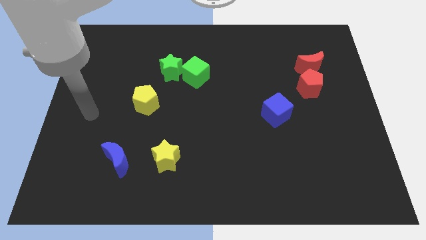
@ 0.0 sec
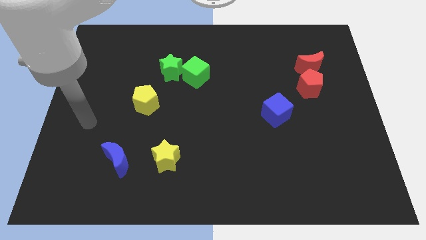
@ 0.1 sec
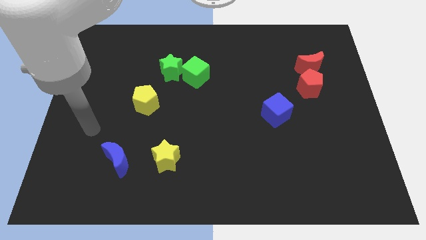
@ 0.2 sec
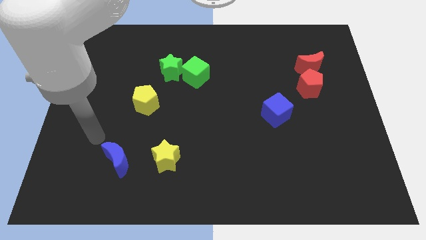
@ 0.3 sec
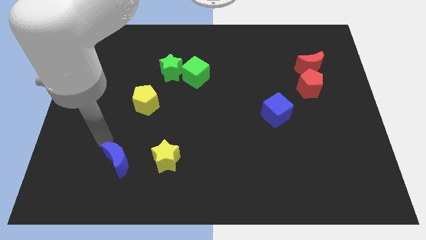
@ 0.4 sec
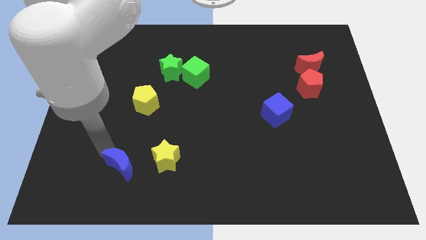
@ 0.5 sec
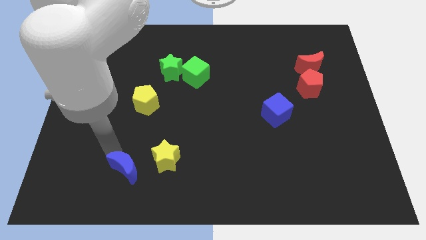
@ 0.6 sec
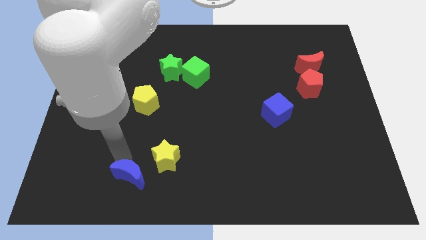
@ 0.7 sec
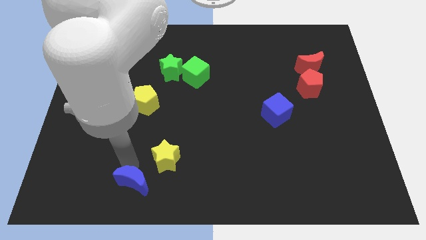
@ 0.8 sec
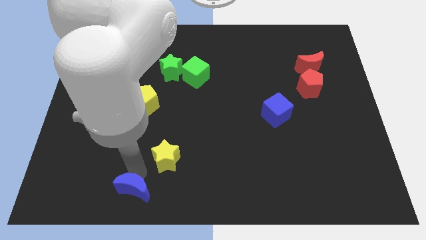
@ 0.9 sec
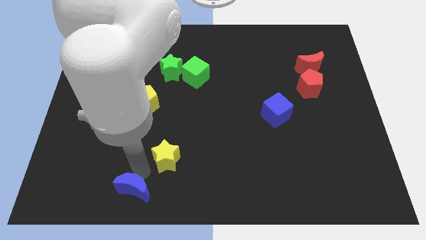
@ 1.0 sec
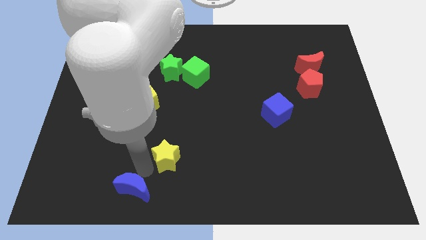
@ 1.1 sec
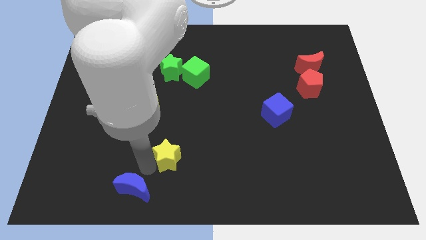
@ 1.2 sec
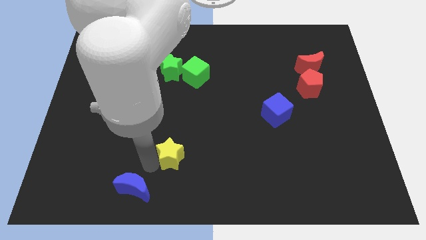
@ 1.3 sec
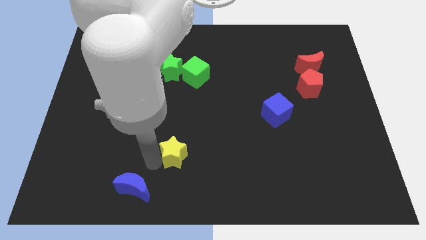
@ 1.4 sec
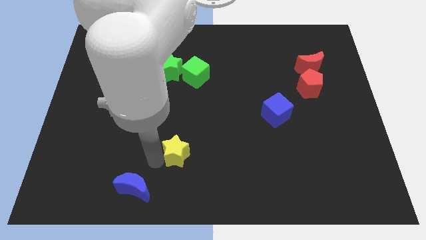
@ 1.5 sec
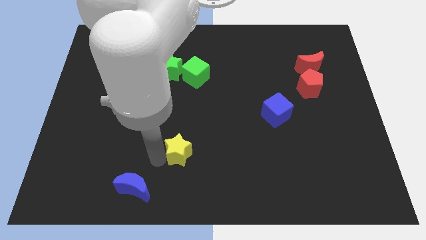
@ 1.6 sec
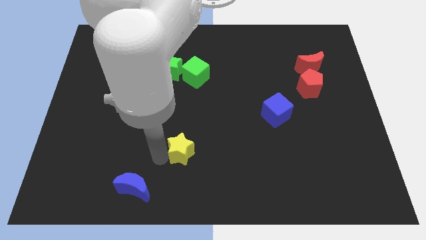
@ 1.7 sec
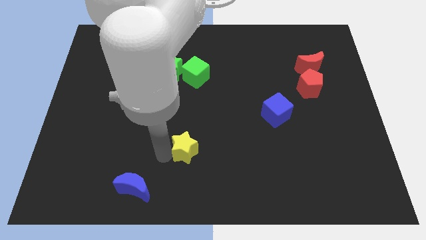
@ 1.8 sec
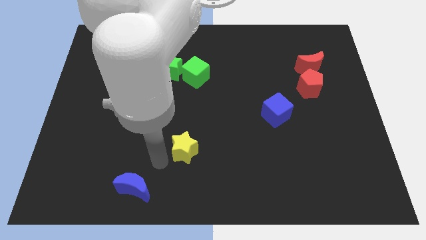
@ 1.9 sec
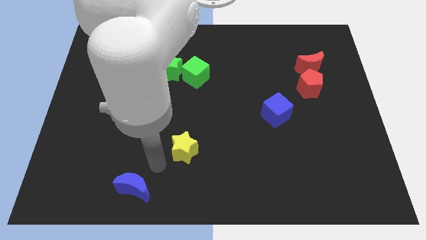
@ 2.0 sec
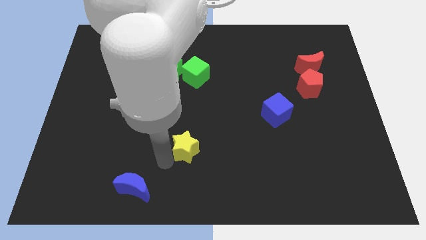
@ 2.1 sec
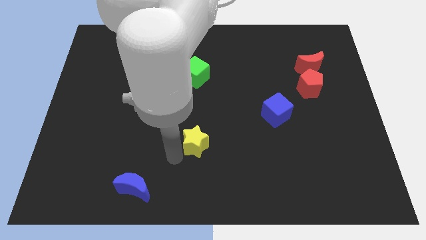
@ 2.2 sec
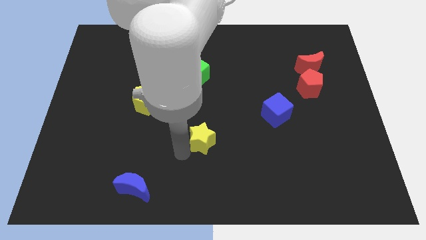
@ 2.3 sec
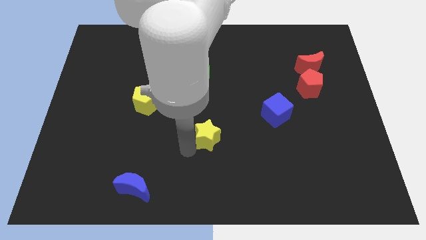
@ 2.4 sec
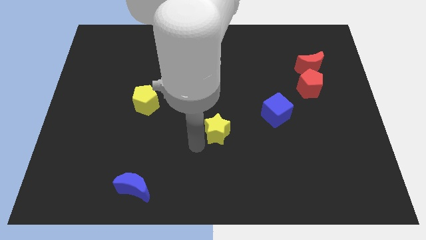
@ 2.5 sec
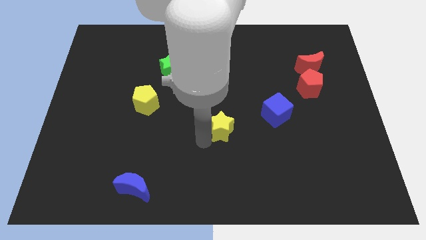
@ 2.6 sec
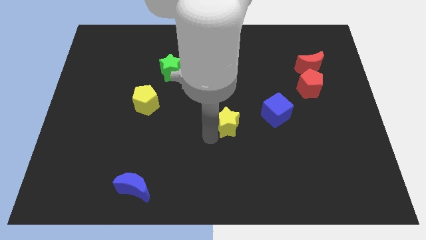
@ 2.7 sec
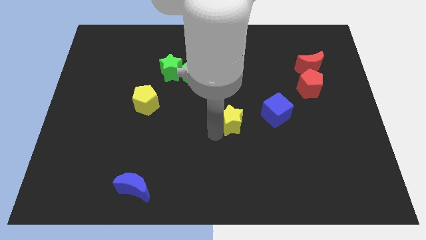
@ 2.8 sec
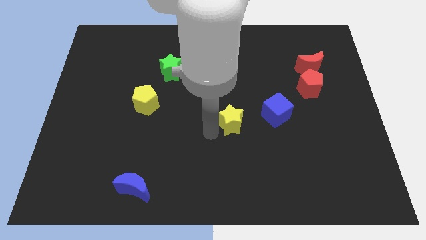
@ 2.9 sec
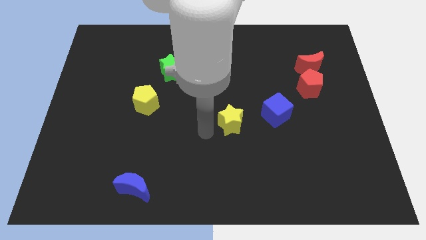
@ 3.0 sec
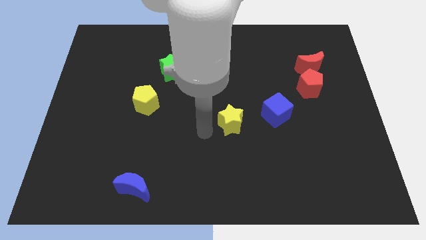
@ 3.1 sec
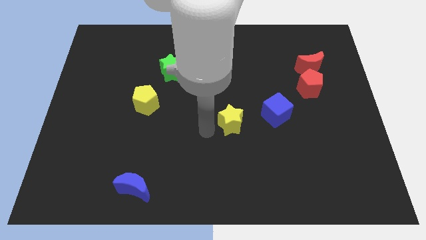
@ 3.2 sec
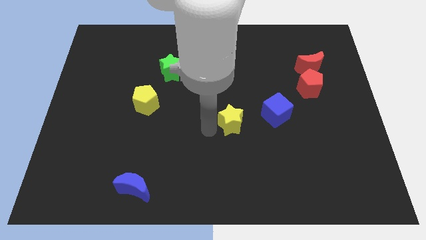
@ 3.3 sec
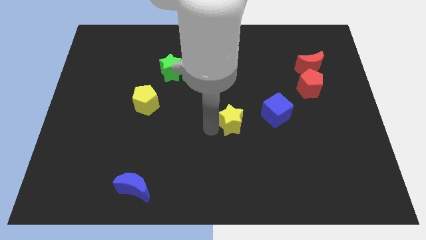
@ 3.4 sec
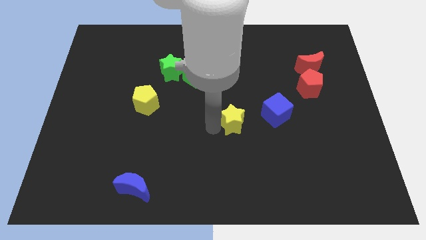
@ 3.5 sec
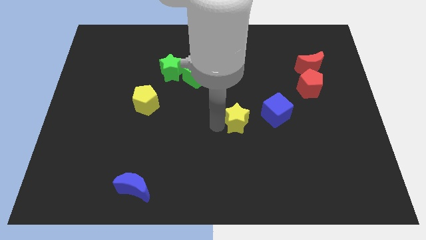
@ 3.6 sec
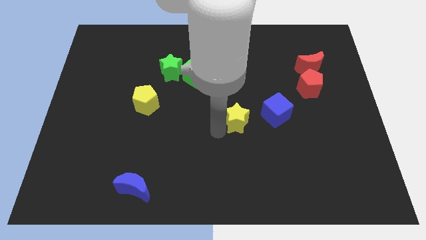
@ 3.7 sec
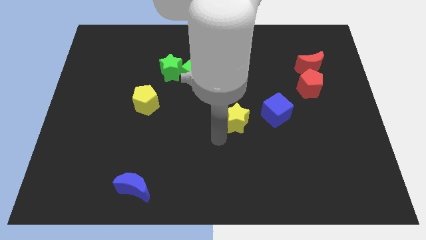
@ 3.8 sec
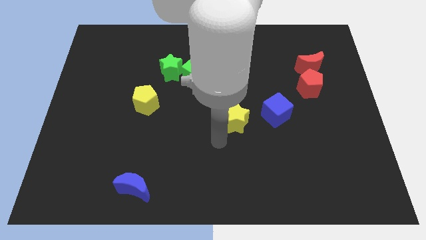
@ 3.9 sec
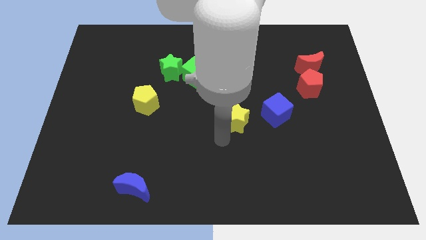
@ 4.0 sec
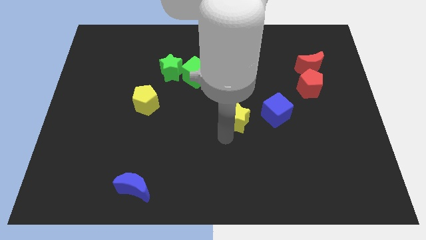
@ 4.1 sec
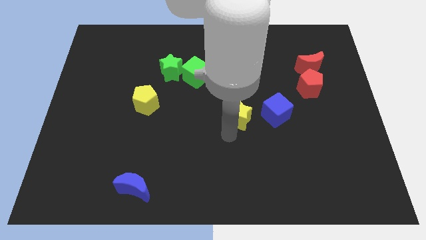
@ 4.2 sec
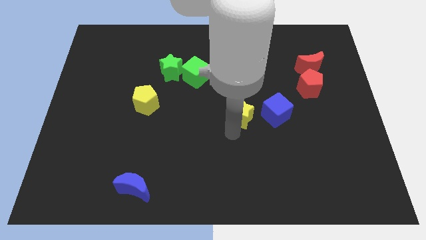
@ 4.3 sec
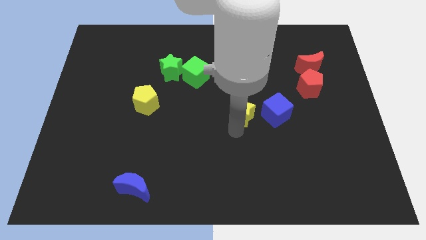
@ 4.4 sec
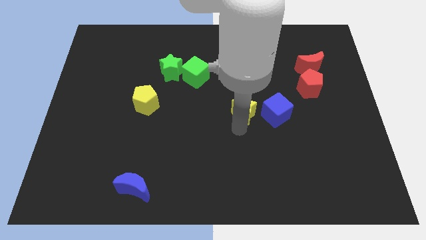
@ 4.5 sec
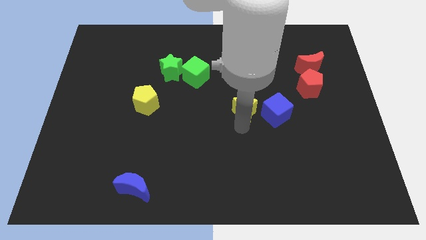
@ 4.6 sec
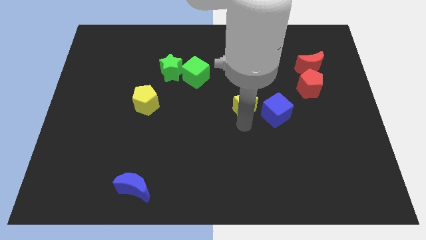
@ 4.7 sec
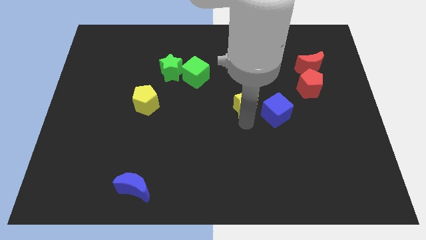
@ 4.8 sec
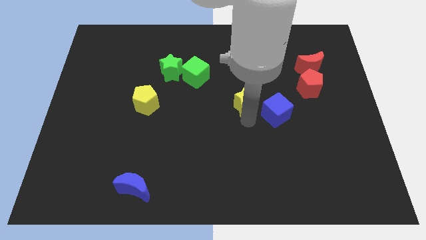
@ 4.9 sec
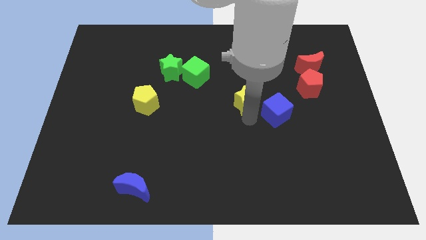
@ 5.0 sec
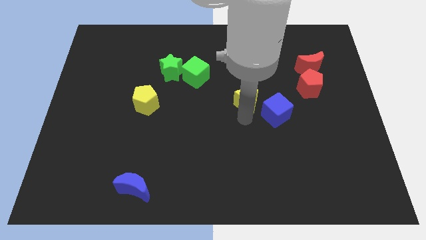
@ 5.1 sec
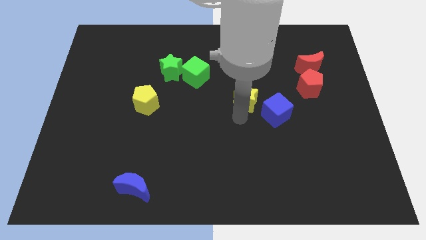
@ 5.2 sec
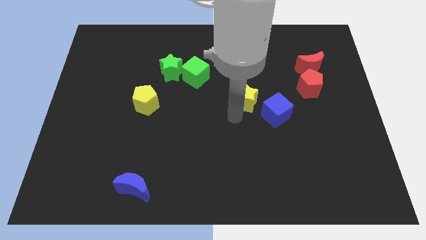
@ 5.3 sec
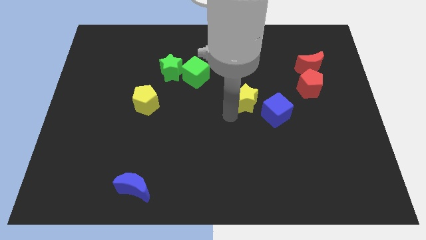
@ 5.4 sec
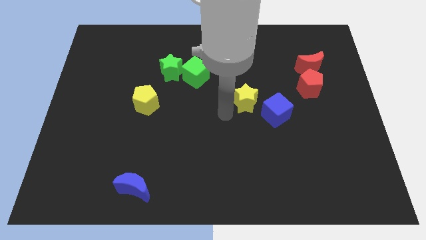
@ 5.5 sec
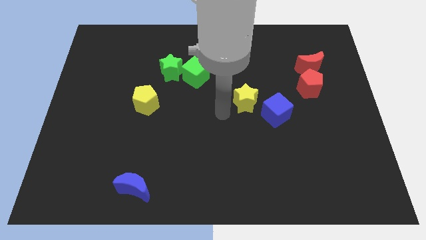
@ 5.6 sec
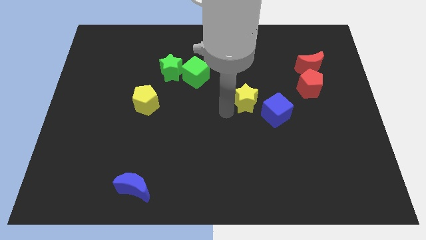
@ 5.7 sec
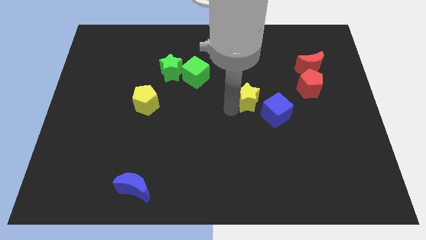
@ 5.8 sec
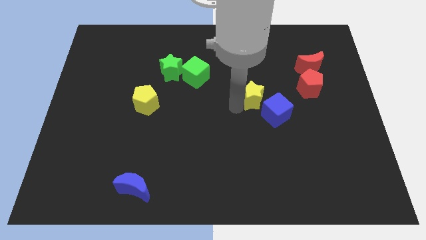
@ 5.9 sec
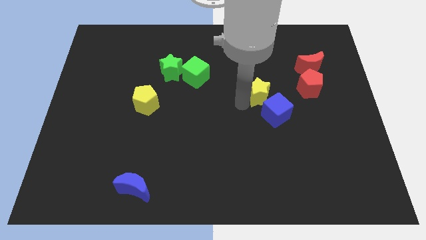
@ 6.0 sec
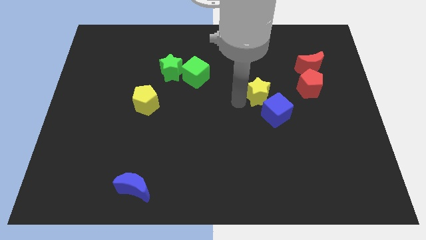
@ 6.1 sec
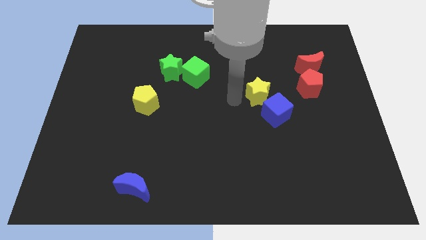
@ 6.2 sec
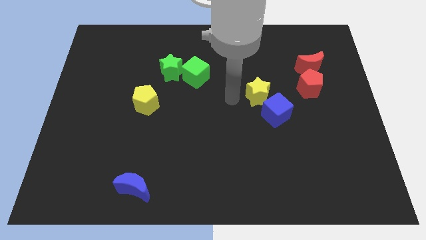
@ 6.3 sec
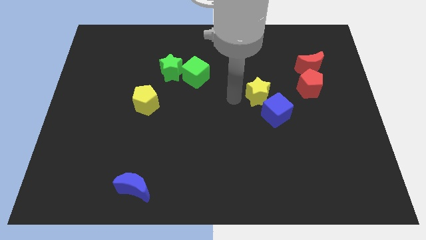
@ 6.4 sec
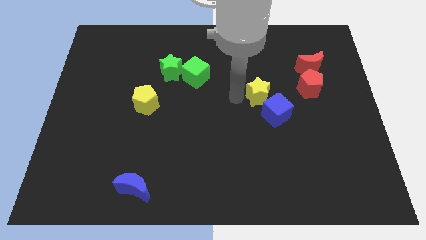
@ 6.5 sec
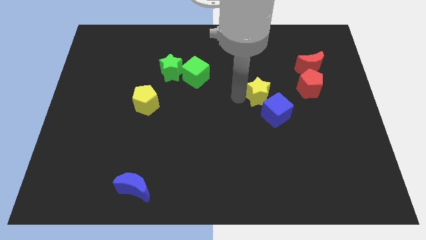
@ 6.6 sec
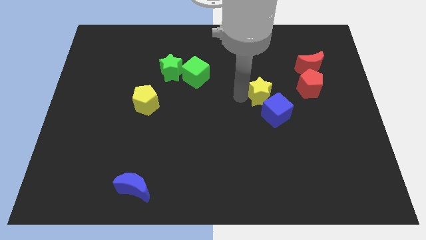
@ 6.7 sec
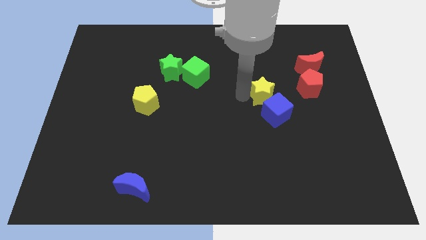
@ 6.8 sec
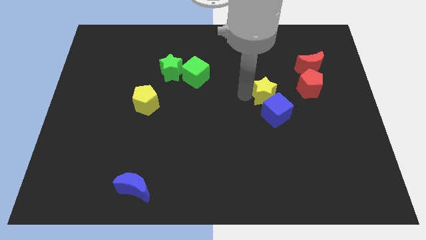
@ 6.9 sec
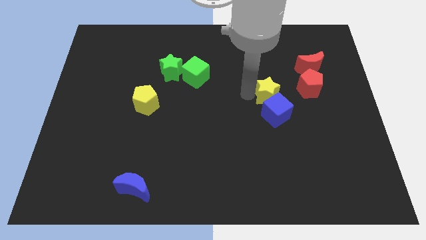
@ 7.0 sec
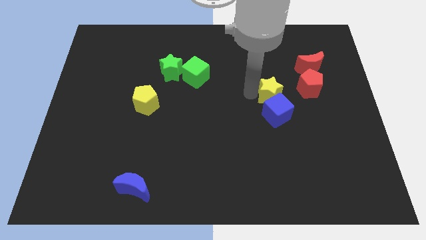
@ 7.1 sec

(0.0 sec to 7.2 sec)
move the yellow star to the top right side of the blue cube

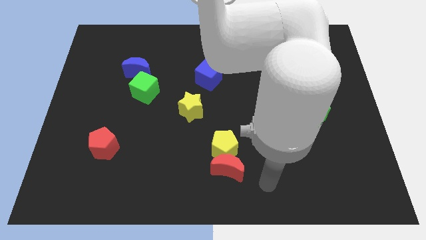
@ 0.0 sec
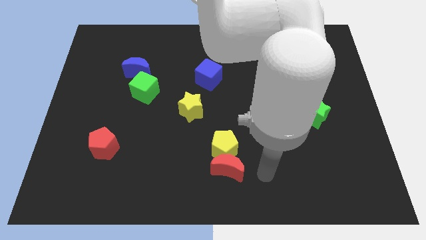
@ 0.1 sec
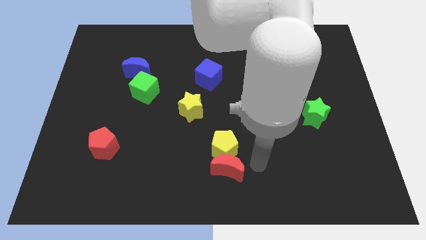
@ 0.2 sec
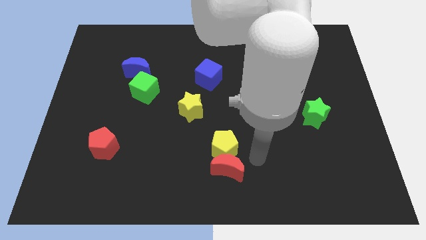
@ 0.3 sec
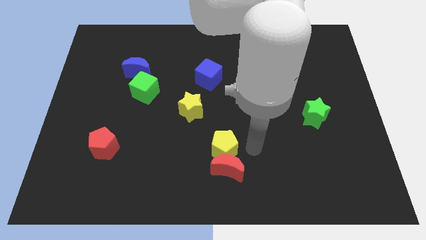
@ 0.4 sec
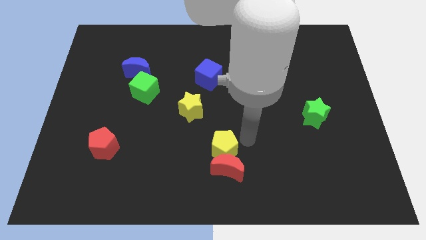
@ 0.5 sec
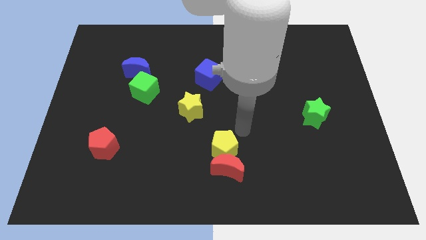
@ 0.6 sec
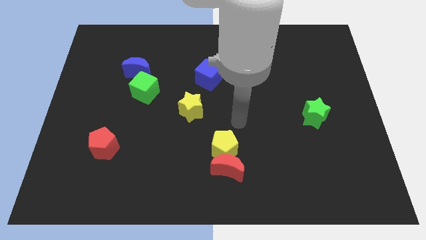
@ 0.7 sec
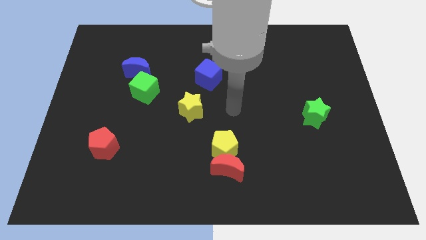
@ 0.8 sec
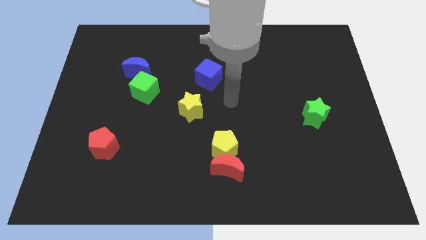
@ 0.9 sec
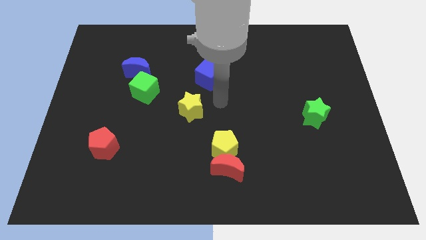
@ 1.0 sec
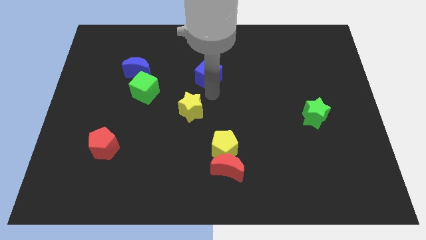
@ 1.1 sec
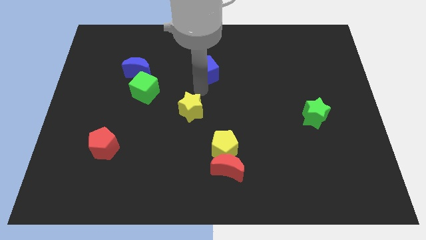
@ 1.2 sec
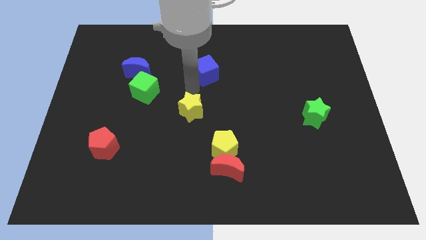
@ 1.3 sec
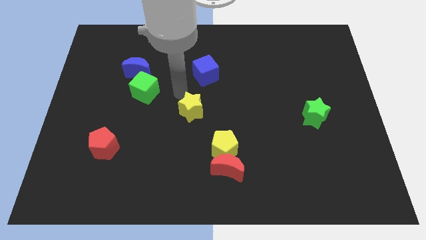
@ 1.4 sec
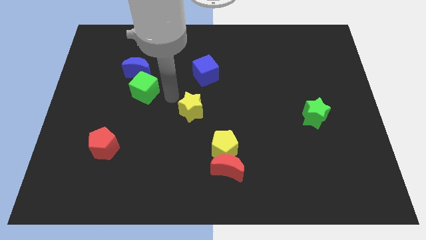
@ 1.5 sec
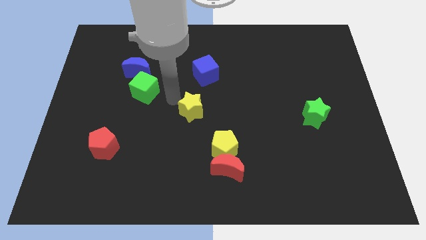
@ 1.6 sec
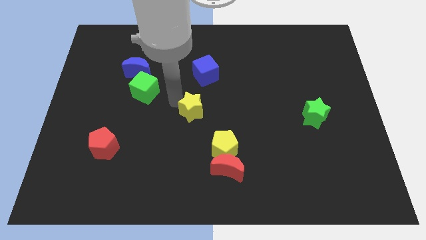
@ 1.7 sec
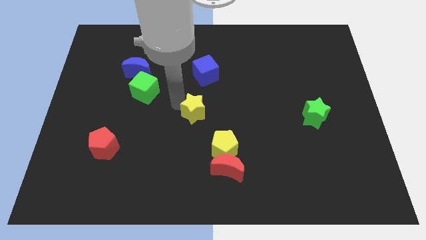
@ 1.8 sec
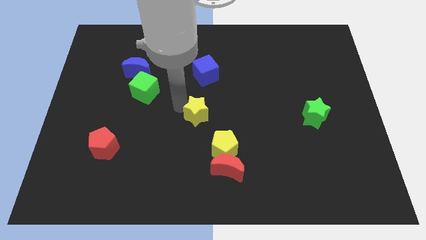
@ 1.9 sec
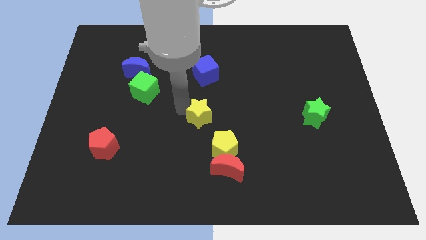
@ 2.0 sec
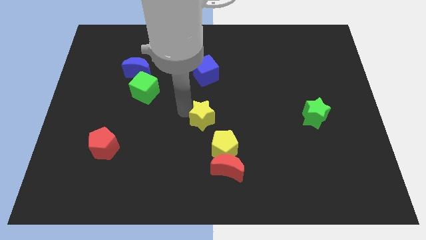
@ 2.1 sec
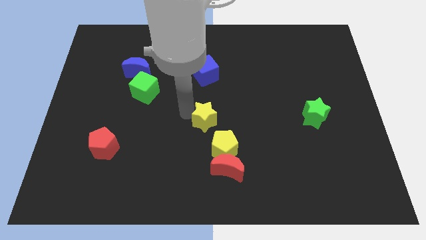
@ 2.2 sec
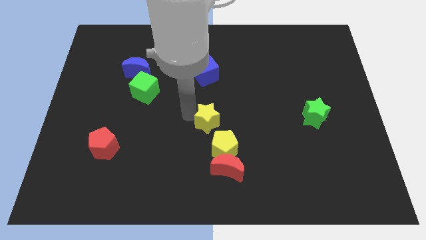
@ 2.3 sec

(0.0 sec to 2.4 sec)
move the yellow star to the top of the red moon
